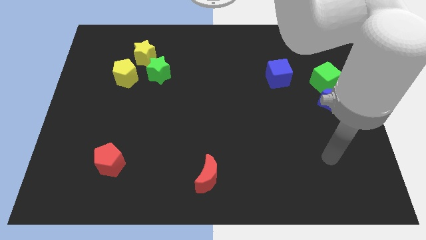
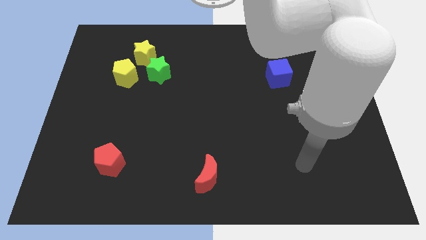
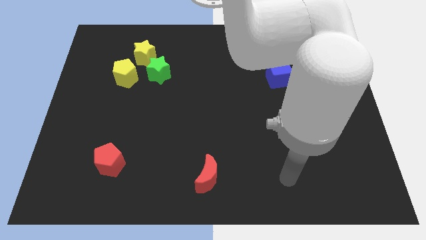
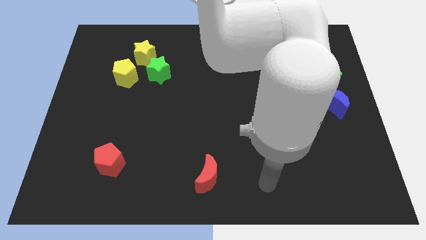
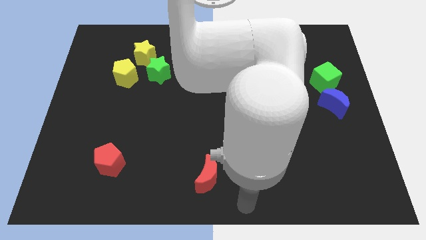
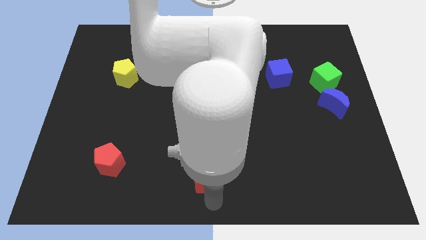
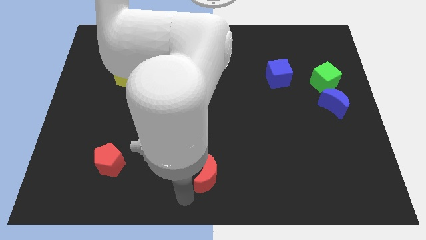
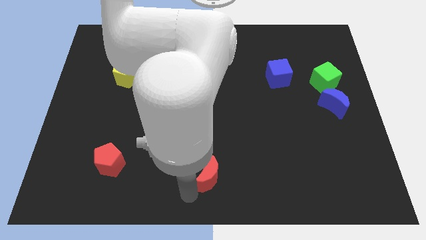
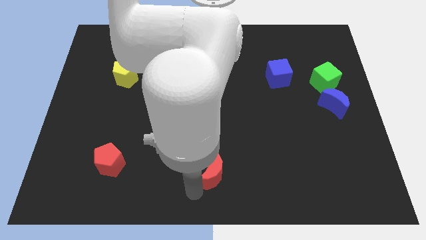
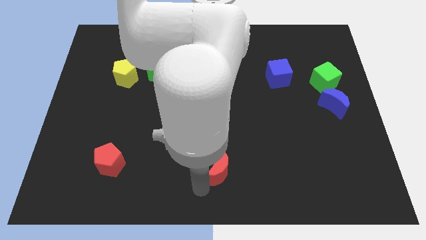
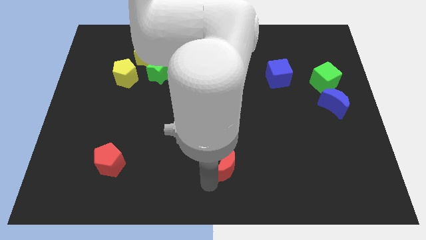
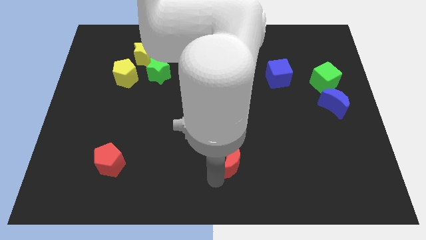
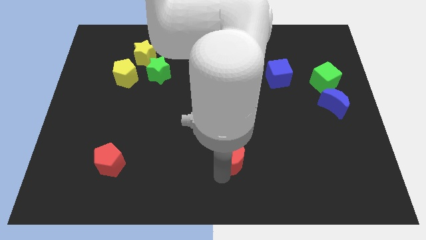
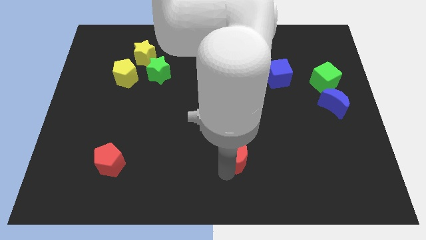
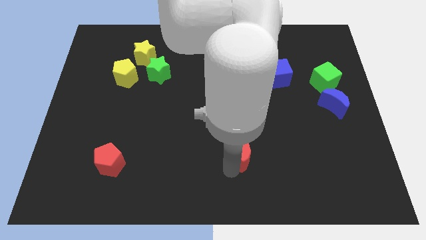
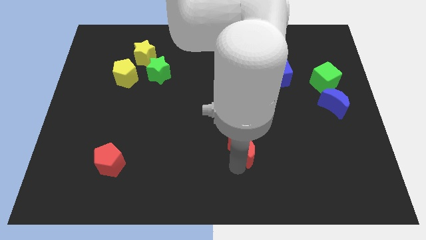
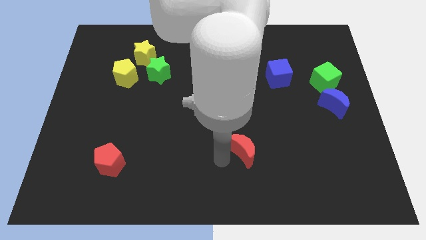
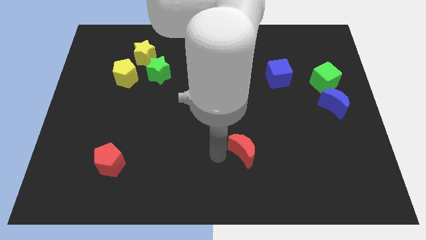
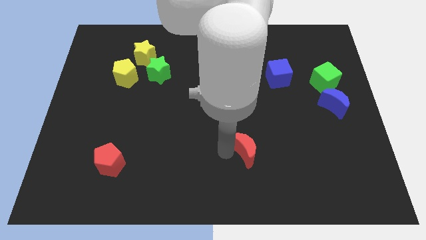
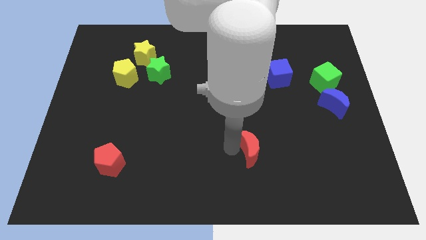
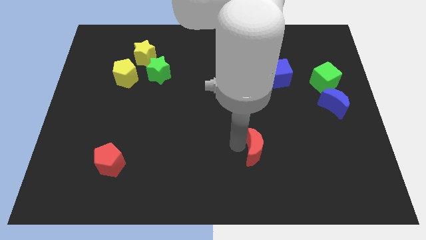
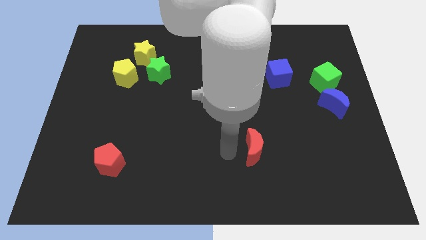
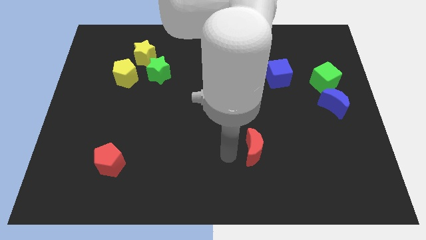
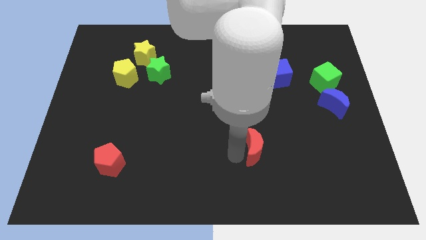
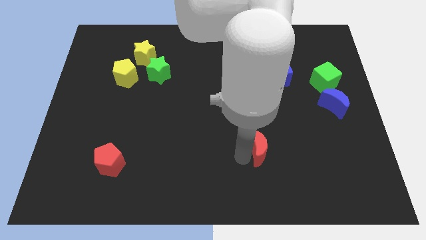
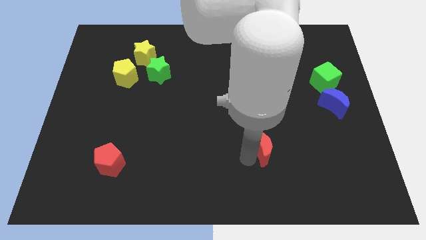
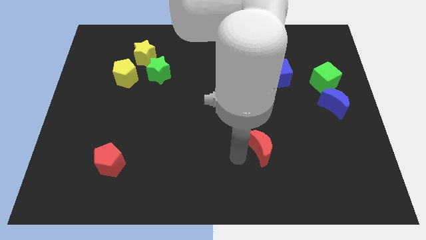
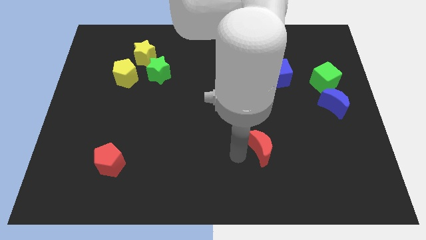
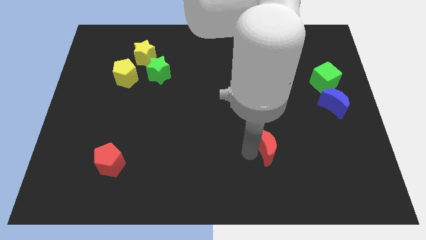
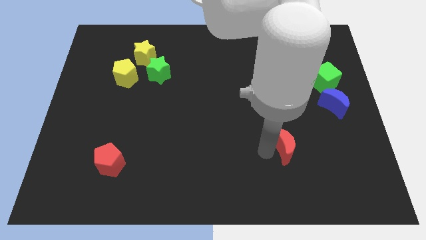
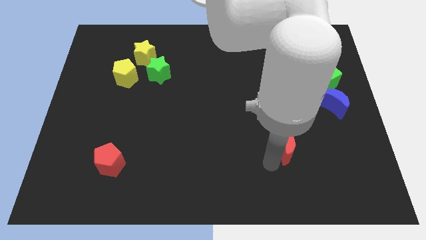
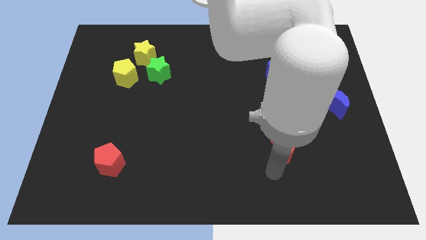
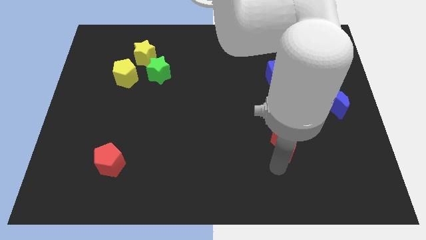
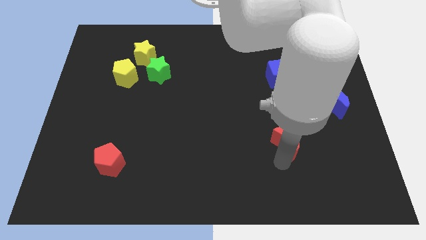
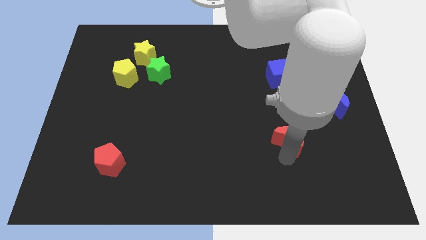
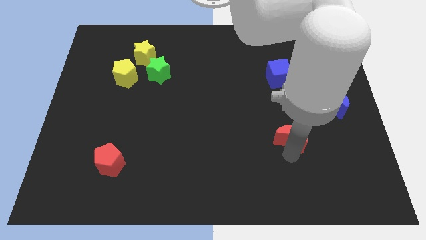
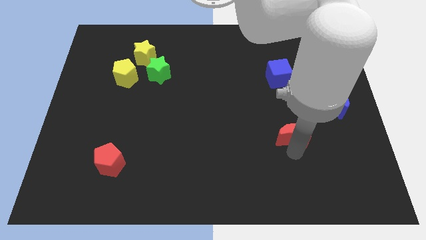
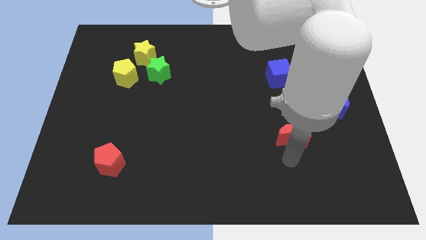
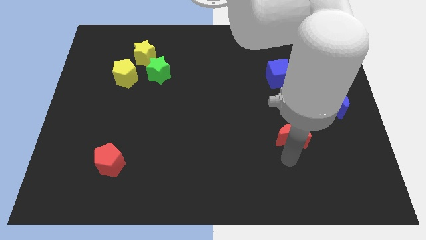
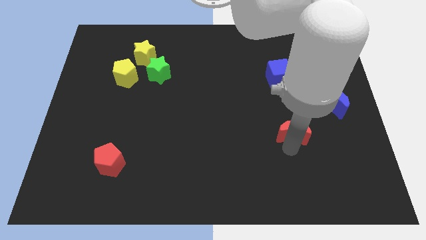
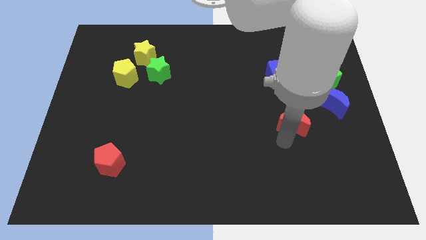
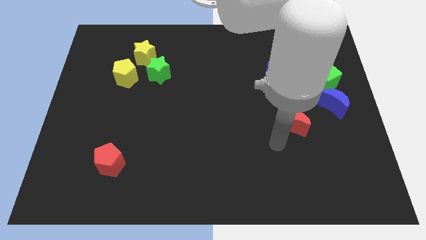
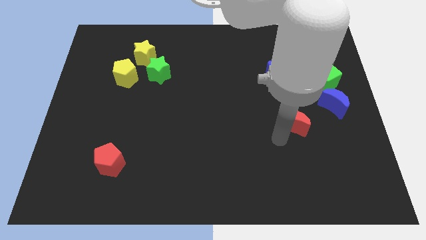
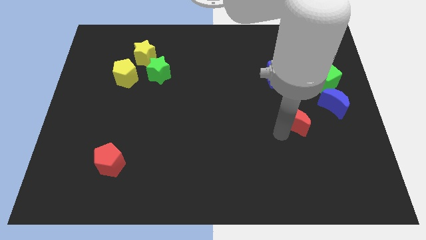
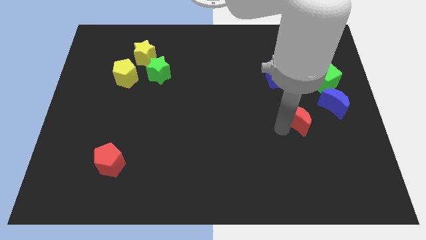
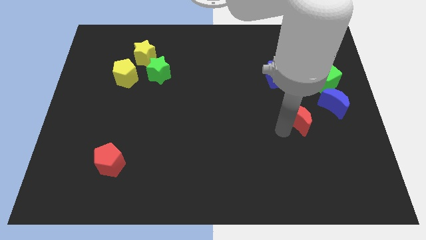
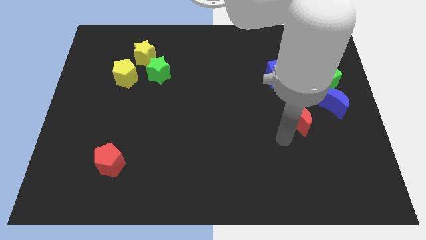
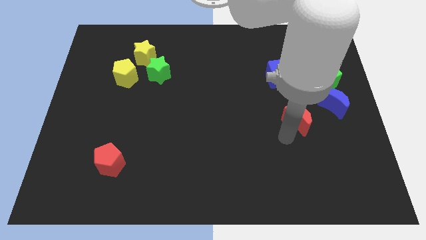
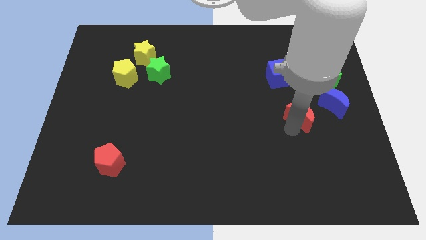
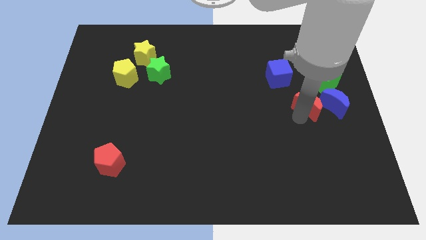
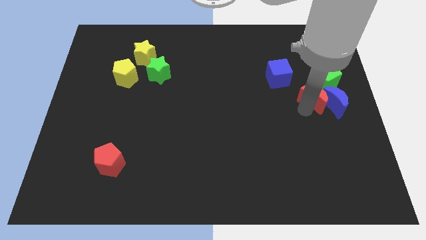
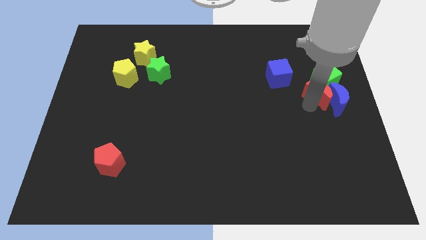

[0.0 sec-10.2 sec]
slide the red moon towards the green cube
